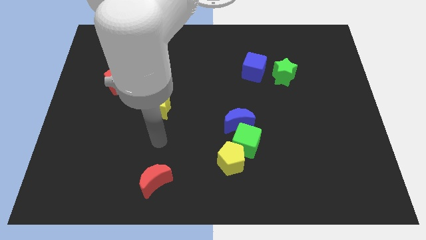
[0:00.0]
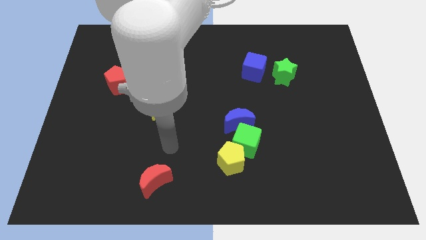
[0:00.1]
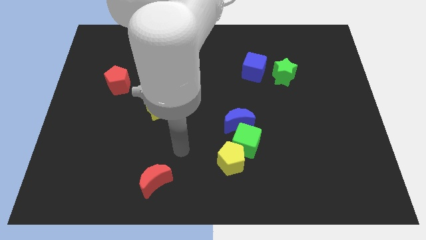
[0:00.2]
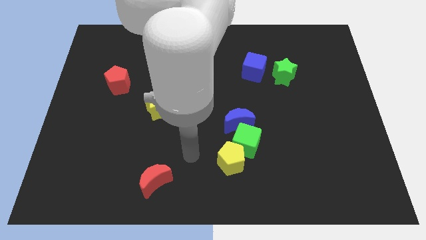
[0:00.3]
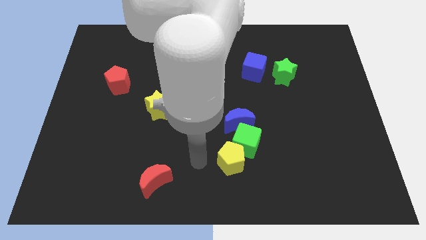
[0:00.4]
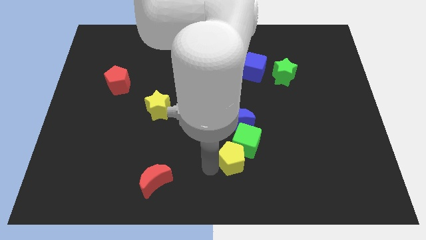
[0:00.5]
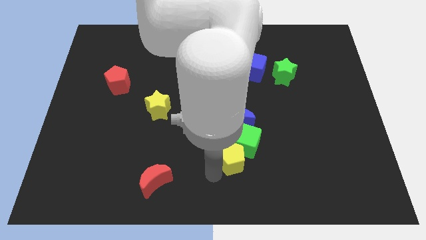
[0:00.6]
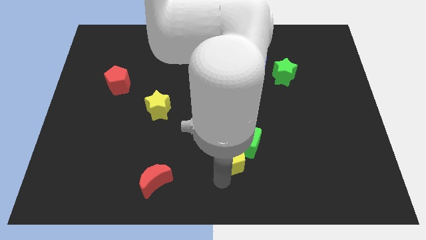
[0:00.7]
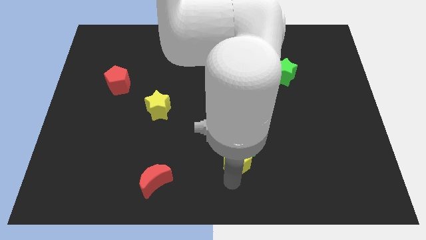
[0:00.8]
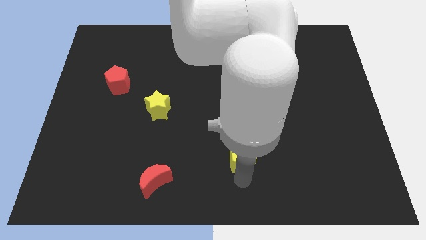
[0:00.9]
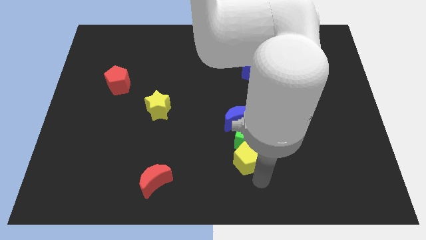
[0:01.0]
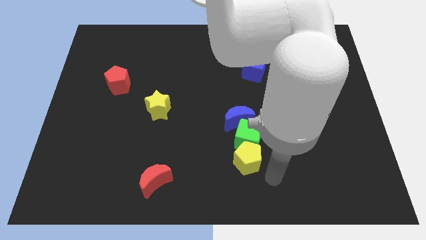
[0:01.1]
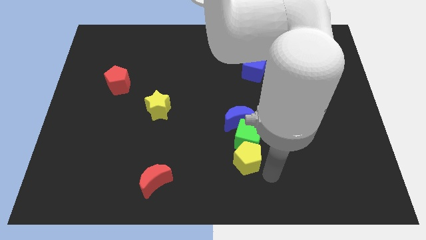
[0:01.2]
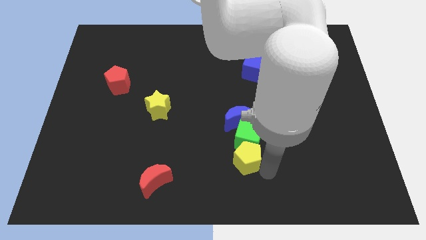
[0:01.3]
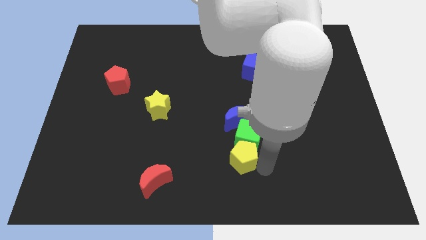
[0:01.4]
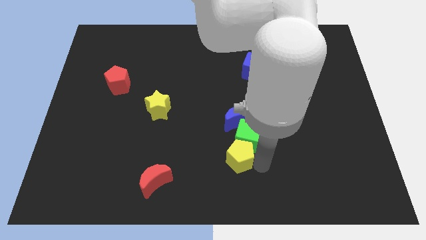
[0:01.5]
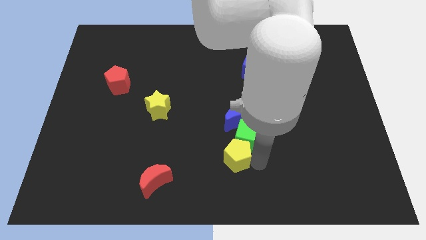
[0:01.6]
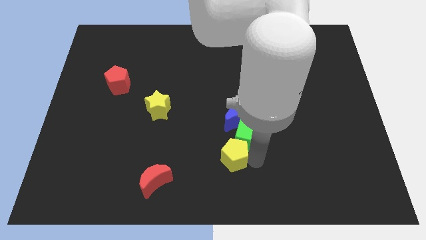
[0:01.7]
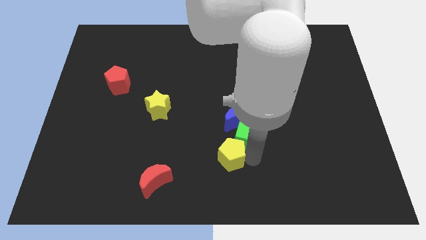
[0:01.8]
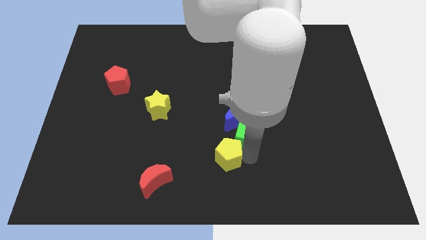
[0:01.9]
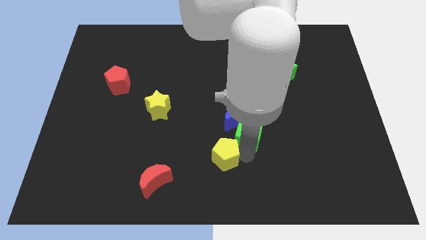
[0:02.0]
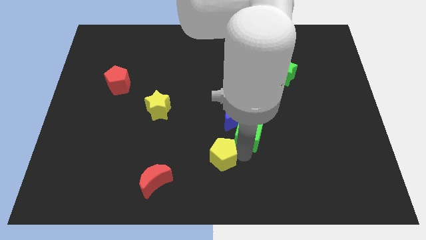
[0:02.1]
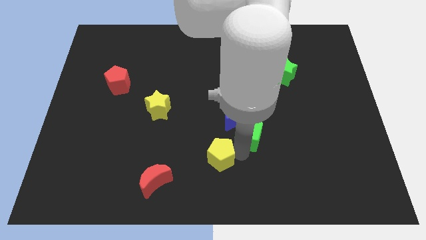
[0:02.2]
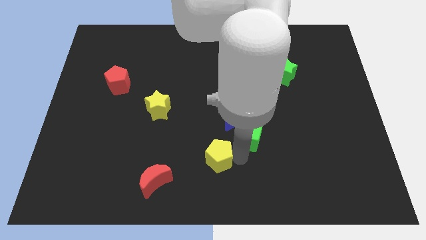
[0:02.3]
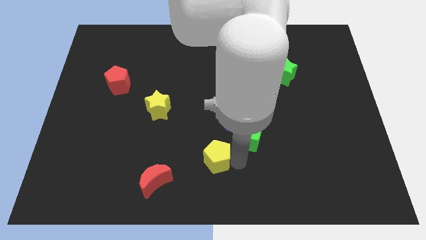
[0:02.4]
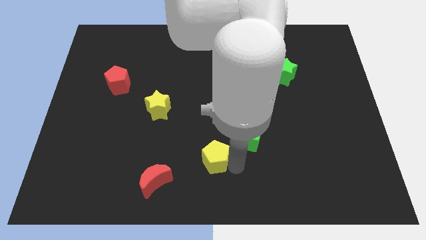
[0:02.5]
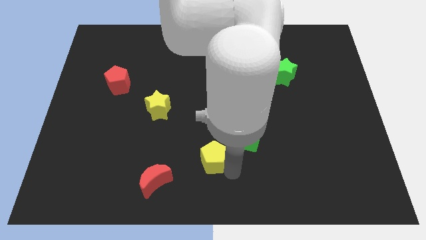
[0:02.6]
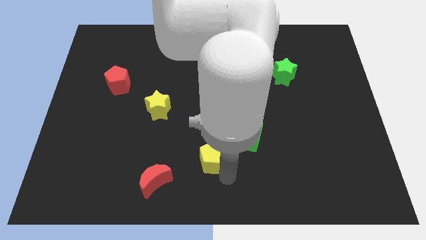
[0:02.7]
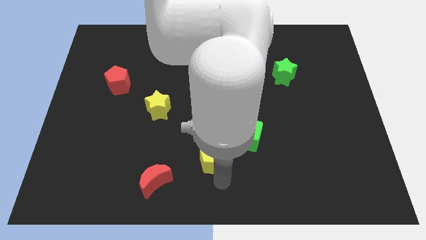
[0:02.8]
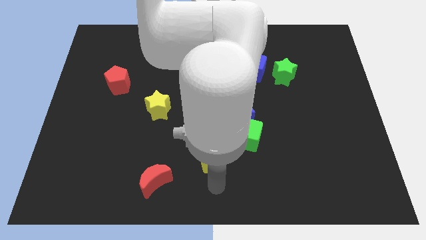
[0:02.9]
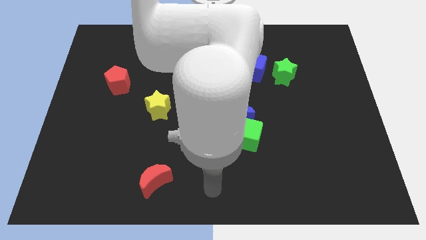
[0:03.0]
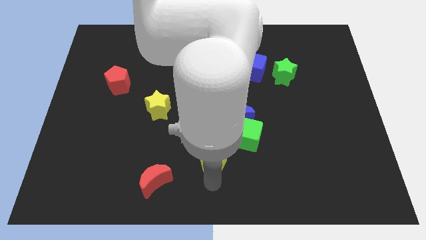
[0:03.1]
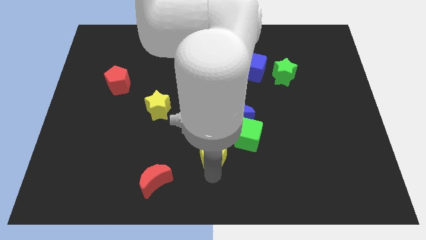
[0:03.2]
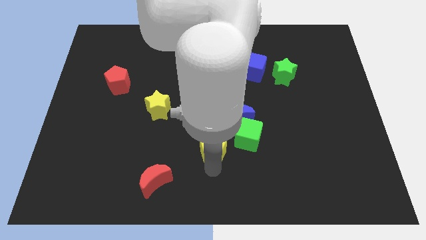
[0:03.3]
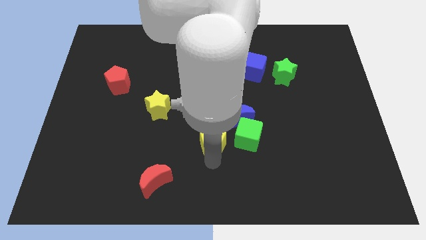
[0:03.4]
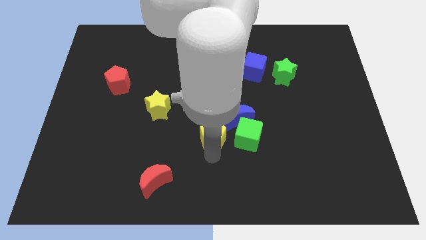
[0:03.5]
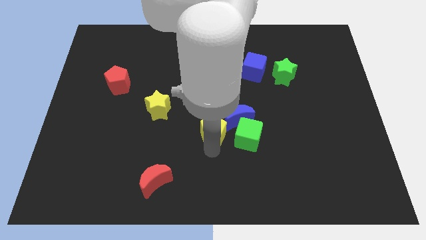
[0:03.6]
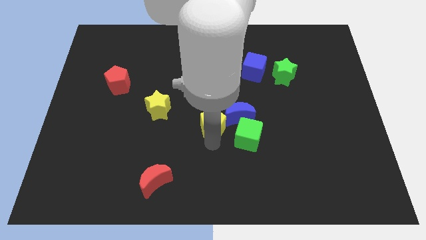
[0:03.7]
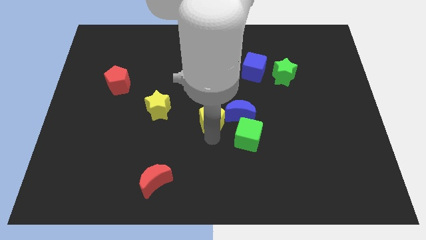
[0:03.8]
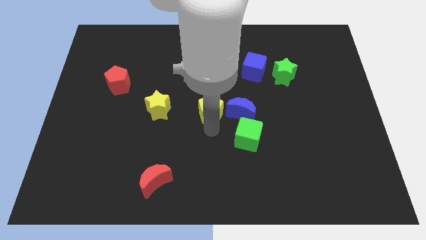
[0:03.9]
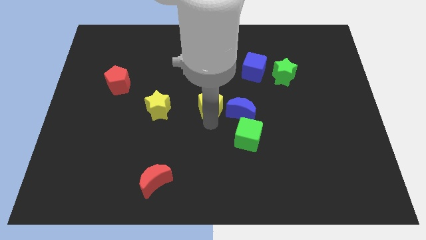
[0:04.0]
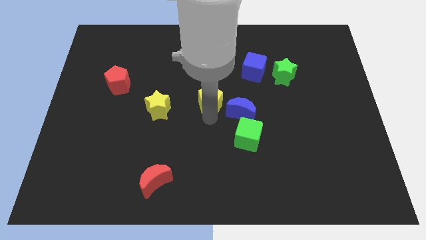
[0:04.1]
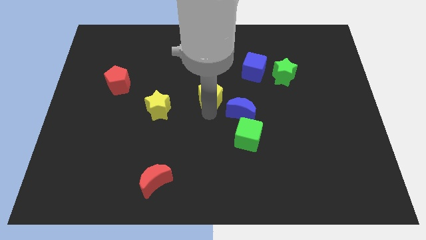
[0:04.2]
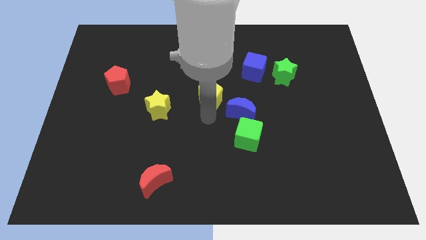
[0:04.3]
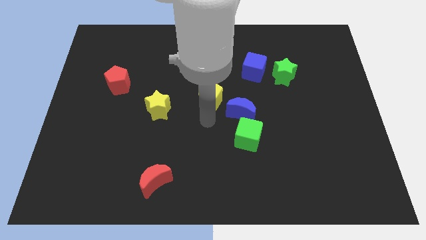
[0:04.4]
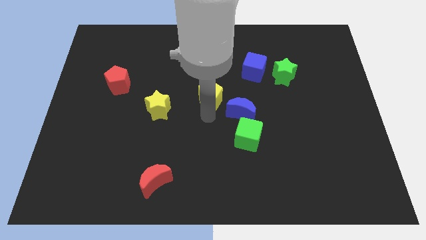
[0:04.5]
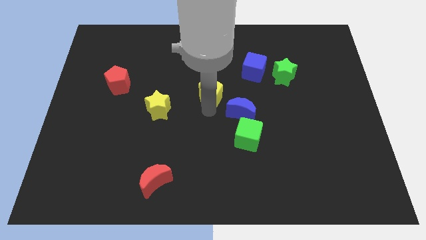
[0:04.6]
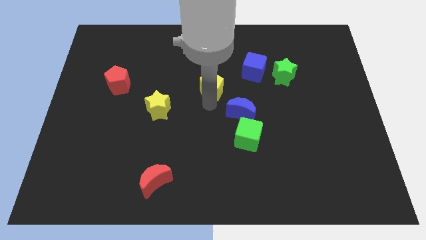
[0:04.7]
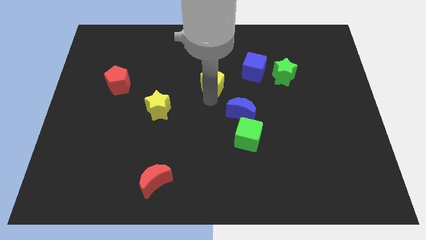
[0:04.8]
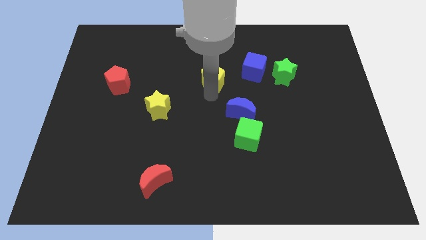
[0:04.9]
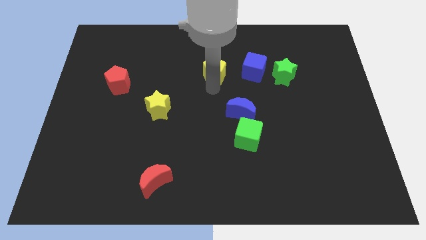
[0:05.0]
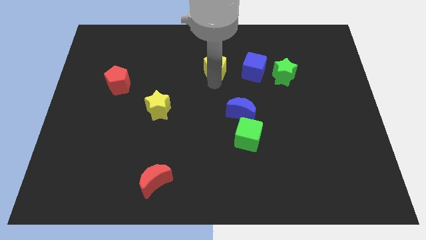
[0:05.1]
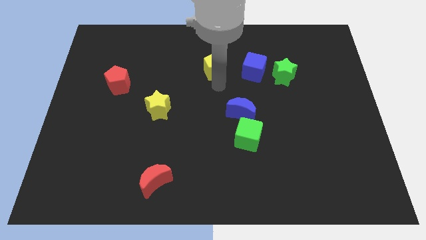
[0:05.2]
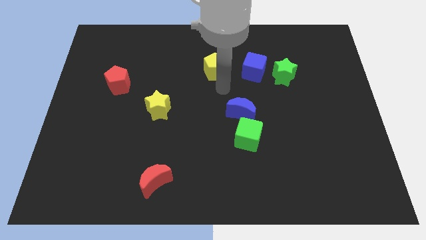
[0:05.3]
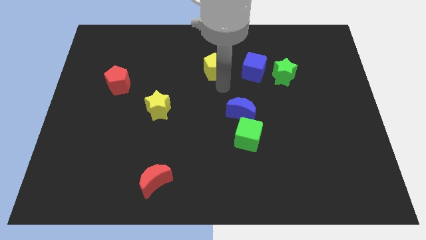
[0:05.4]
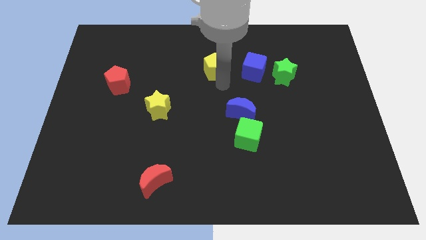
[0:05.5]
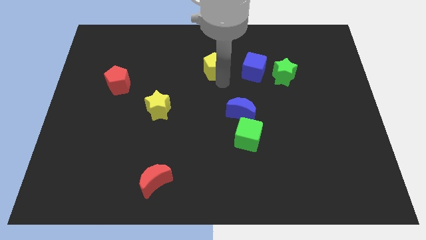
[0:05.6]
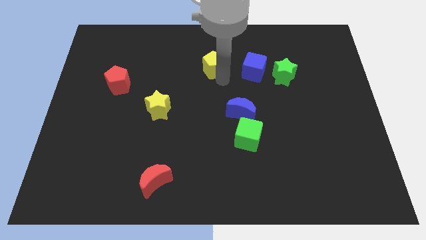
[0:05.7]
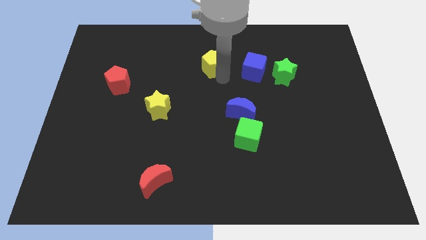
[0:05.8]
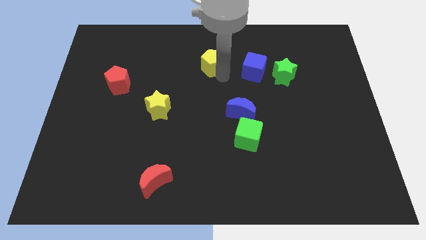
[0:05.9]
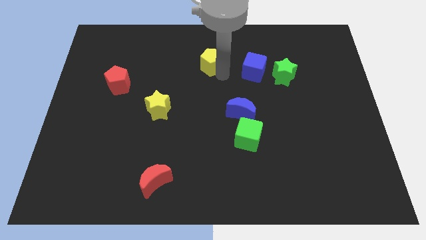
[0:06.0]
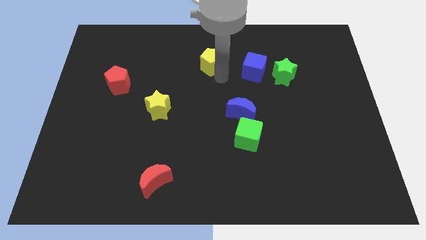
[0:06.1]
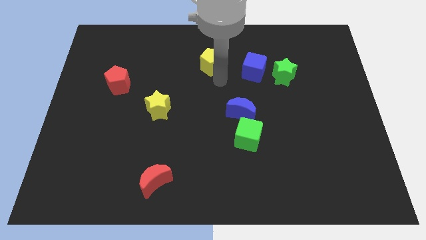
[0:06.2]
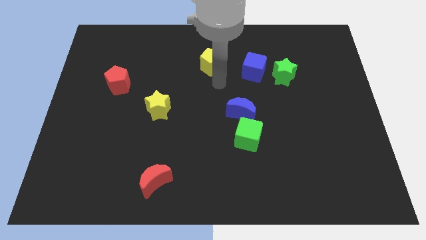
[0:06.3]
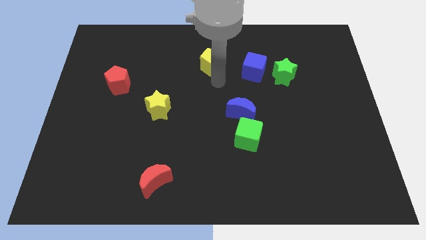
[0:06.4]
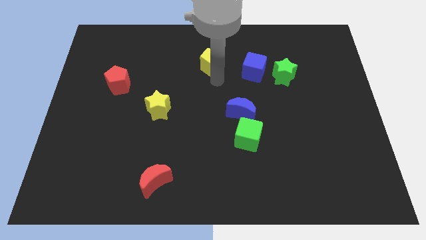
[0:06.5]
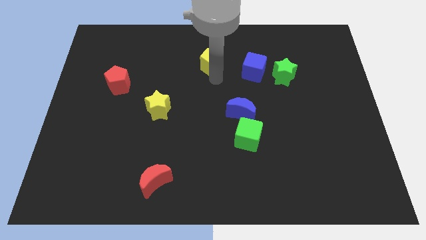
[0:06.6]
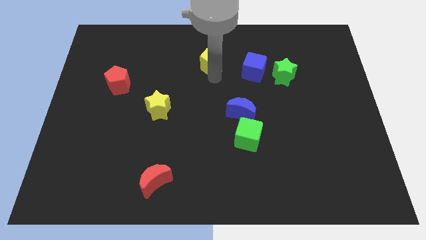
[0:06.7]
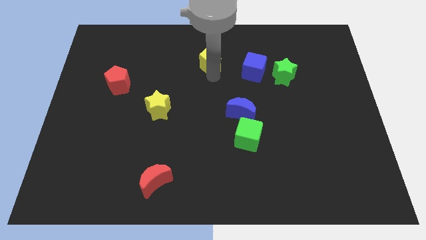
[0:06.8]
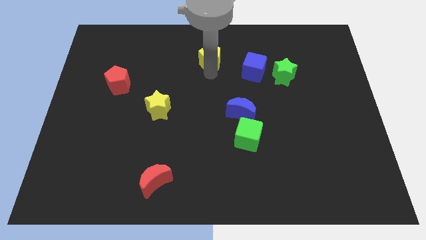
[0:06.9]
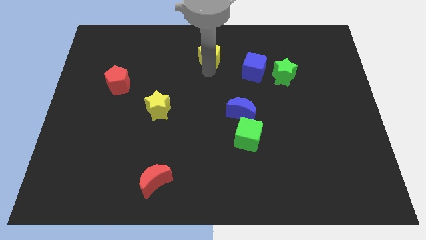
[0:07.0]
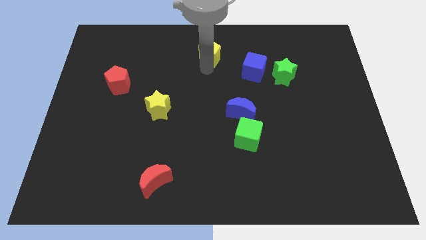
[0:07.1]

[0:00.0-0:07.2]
slide the yellow pentagon to the top side
